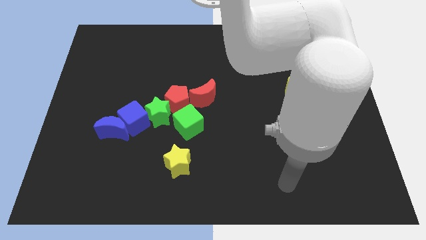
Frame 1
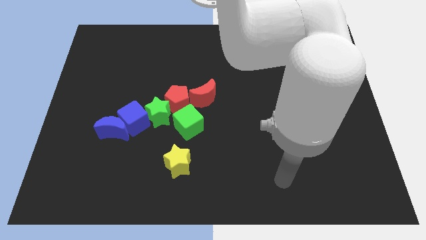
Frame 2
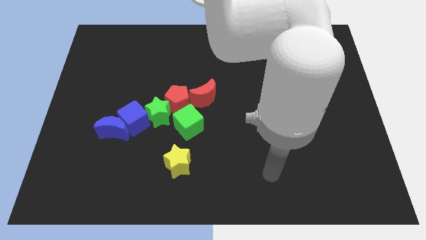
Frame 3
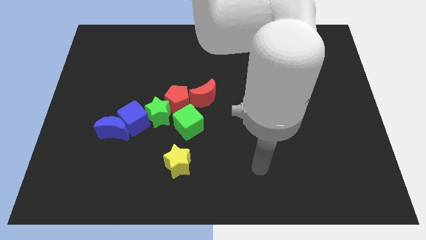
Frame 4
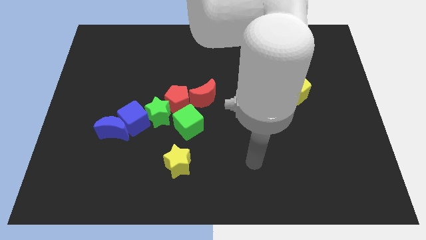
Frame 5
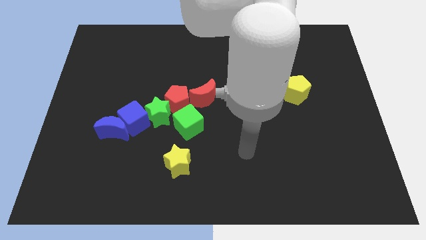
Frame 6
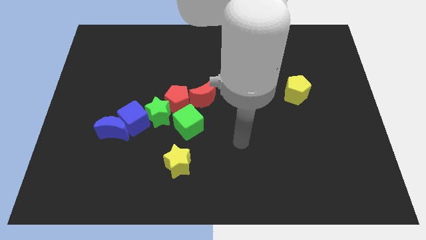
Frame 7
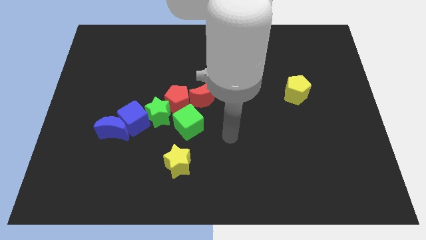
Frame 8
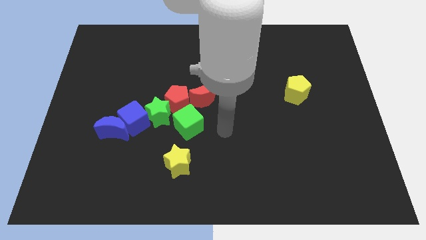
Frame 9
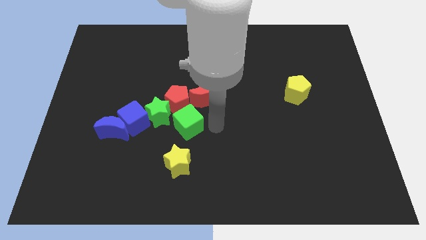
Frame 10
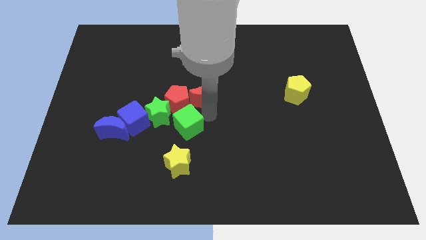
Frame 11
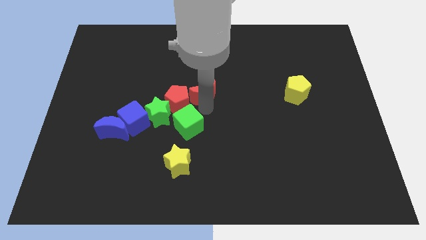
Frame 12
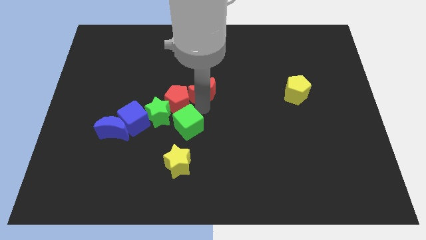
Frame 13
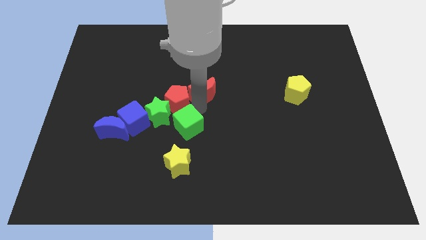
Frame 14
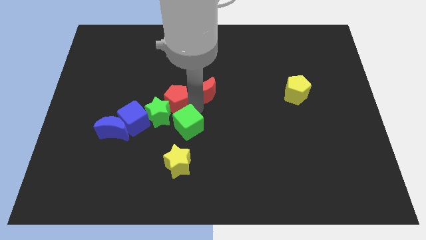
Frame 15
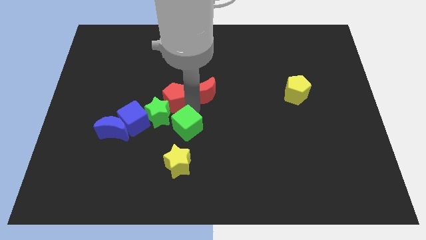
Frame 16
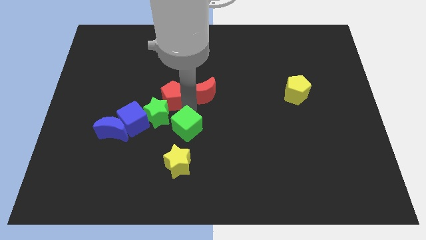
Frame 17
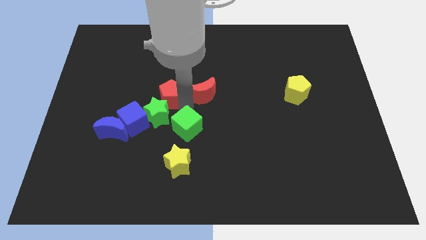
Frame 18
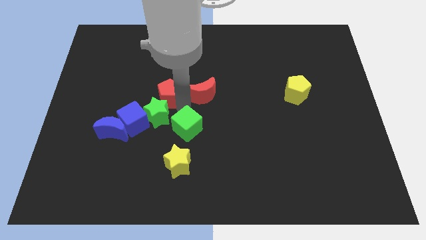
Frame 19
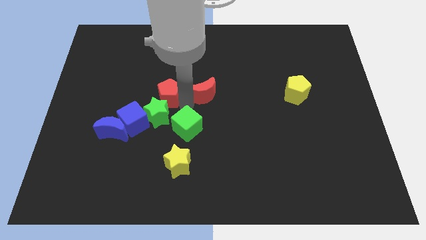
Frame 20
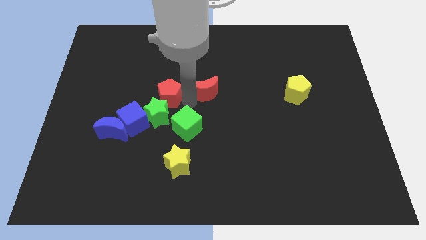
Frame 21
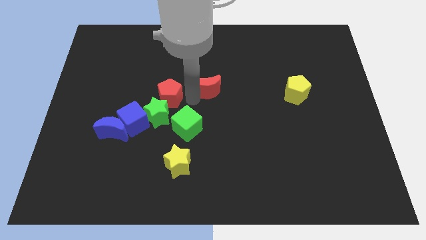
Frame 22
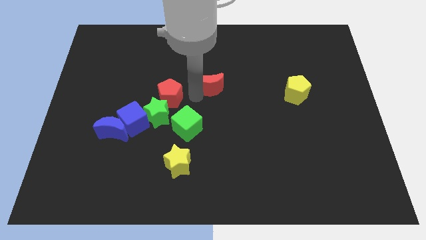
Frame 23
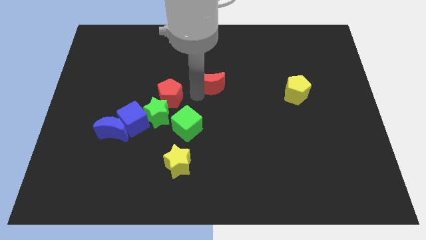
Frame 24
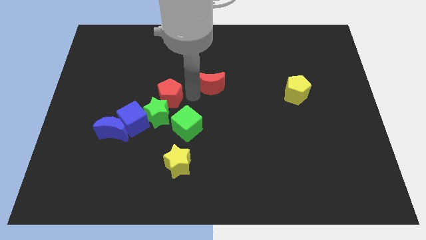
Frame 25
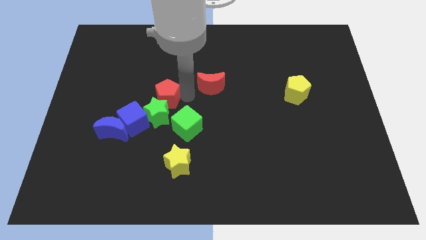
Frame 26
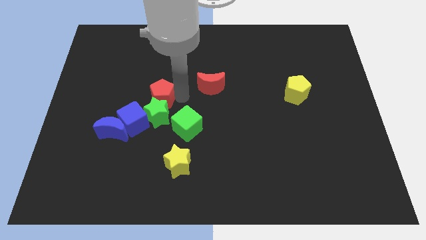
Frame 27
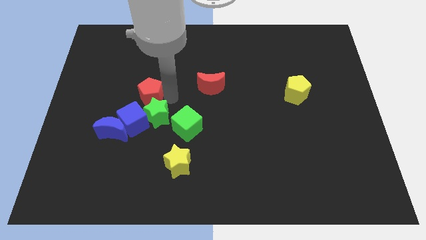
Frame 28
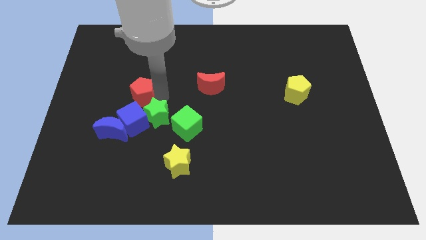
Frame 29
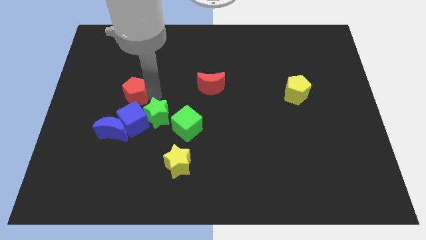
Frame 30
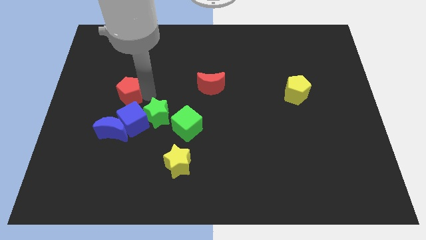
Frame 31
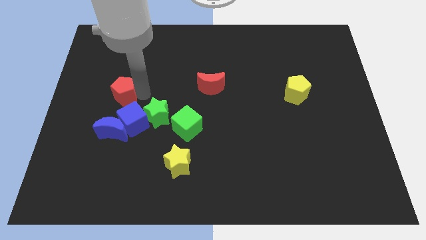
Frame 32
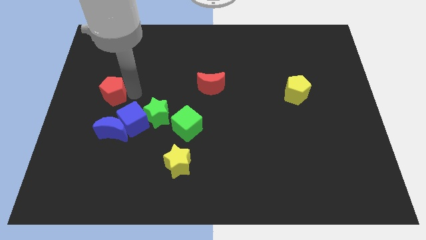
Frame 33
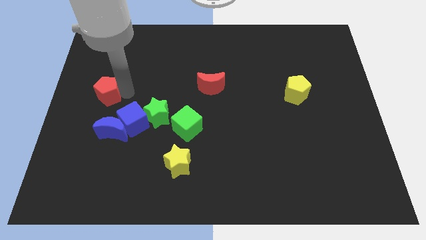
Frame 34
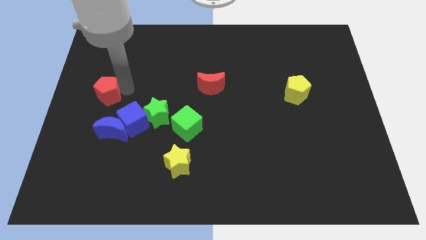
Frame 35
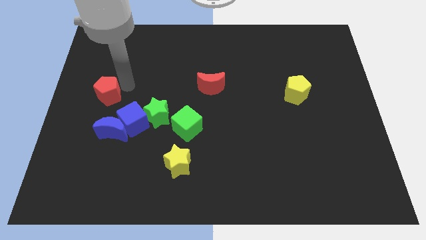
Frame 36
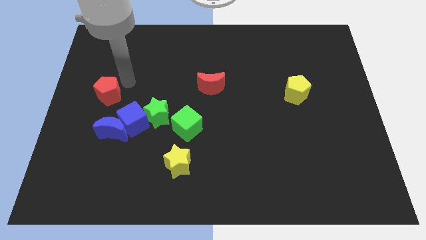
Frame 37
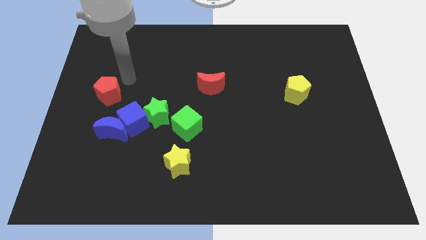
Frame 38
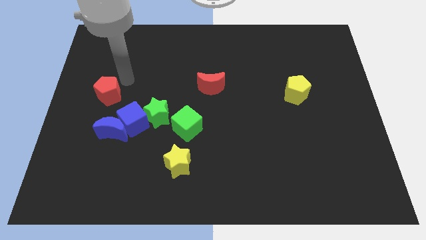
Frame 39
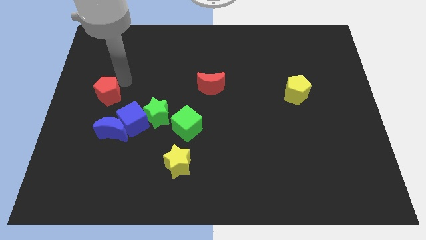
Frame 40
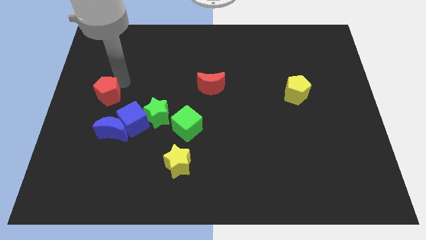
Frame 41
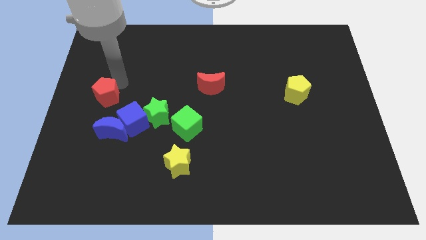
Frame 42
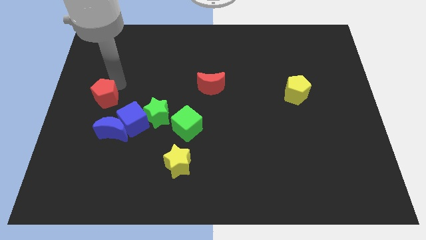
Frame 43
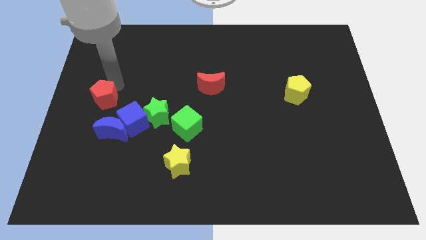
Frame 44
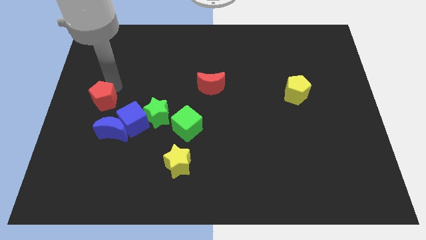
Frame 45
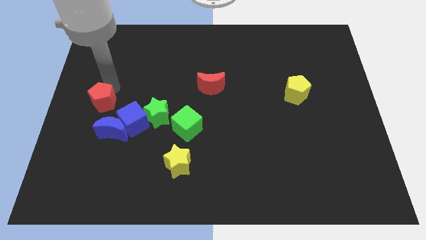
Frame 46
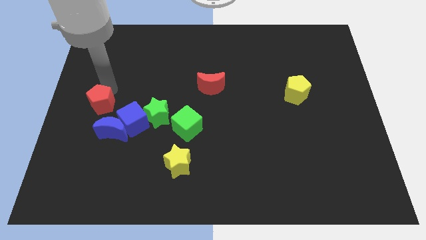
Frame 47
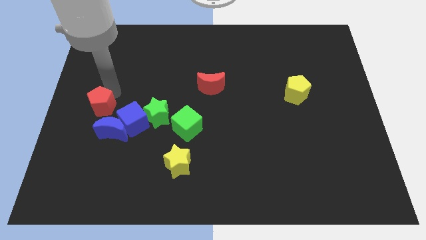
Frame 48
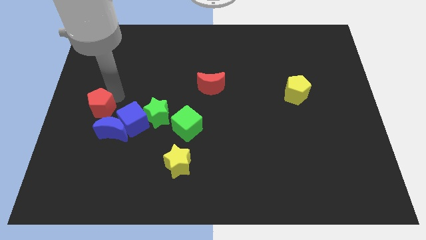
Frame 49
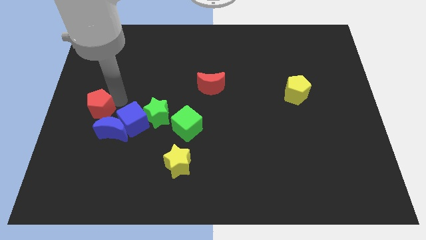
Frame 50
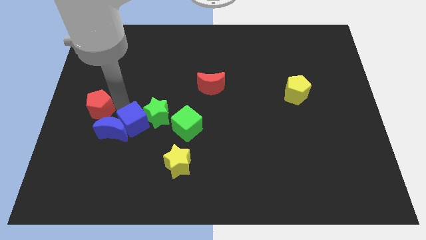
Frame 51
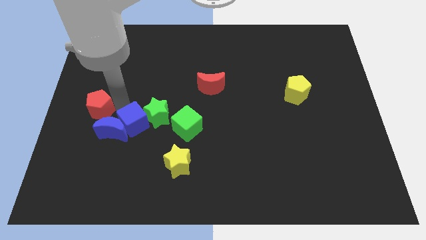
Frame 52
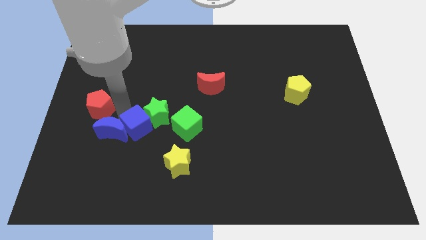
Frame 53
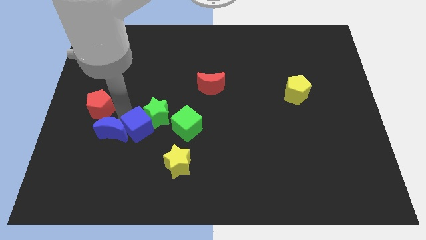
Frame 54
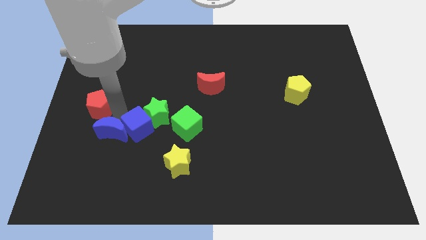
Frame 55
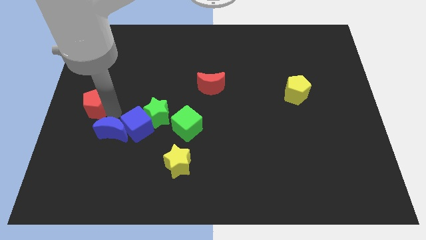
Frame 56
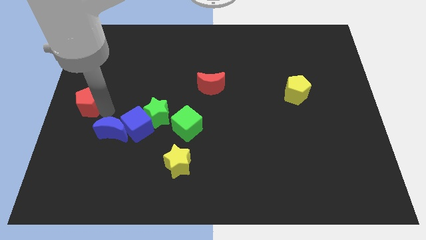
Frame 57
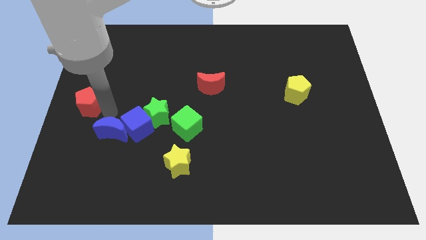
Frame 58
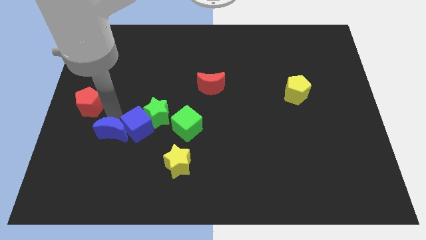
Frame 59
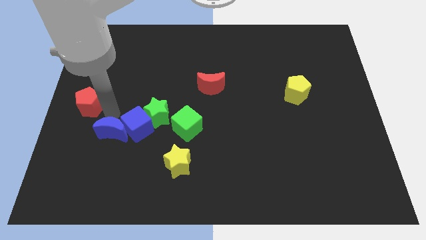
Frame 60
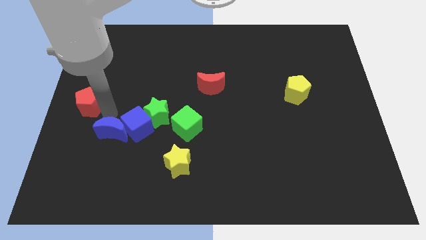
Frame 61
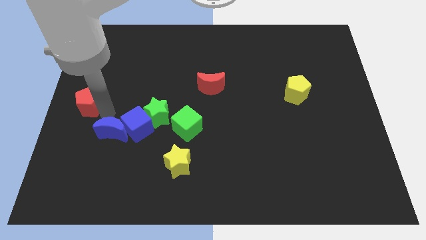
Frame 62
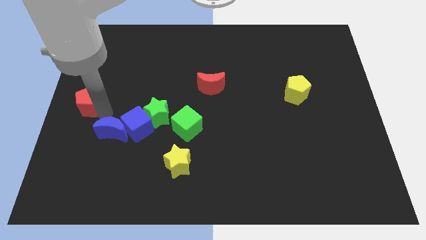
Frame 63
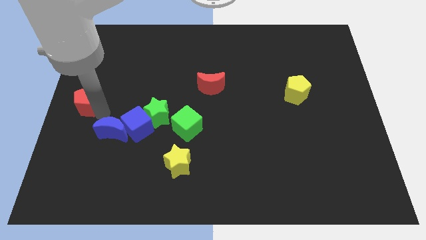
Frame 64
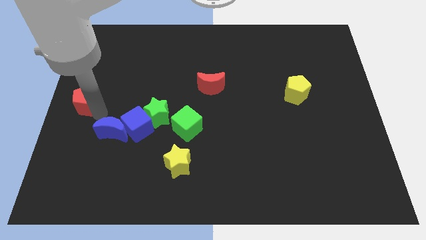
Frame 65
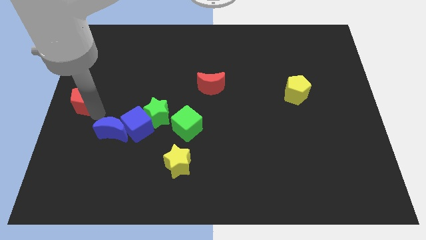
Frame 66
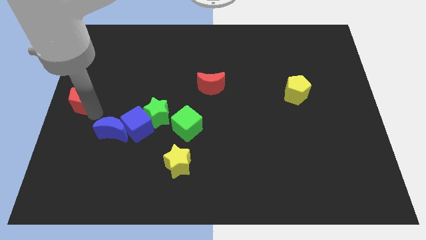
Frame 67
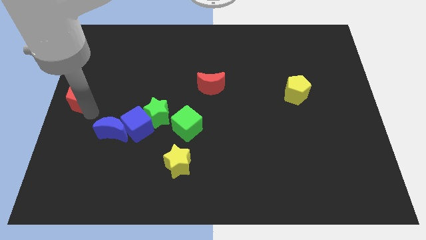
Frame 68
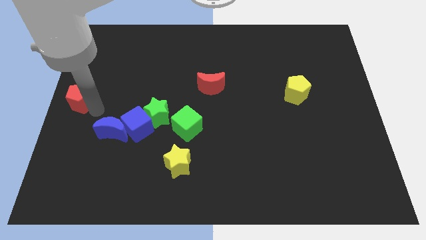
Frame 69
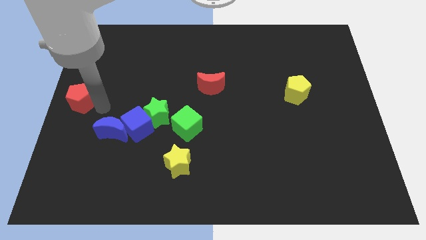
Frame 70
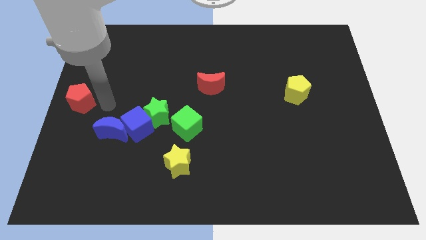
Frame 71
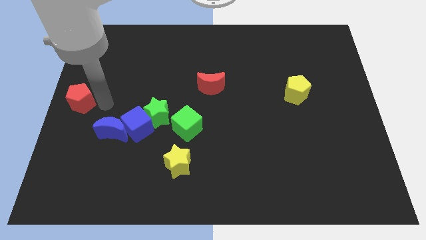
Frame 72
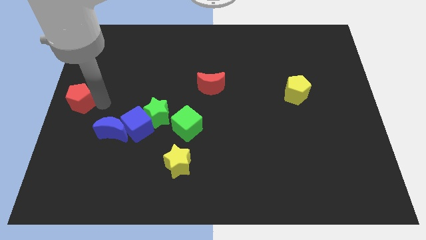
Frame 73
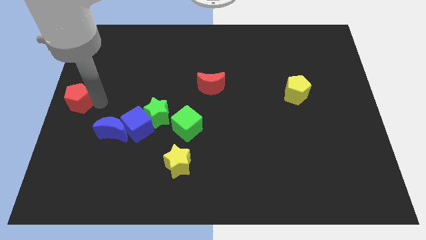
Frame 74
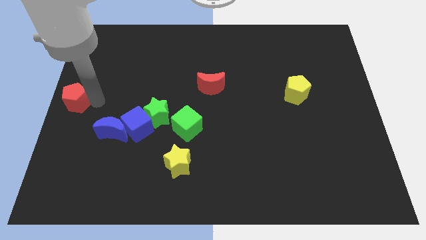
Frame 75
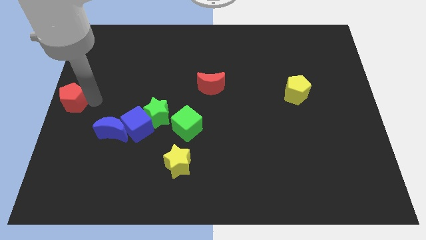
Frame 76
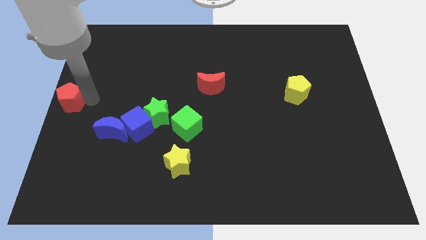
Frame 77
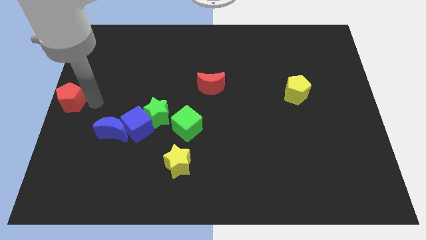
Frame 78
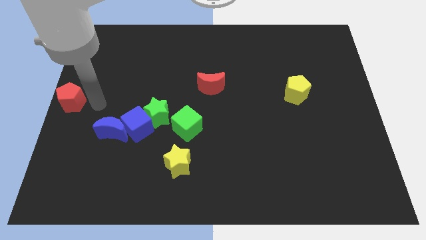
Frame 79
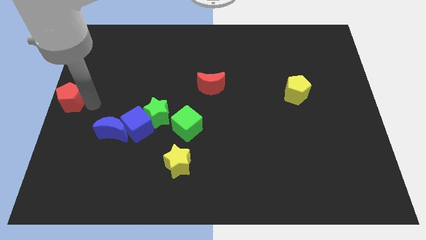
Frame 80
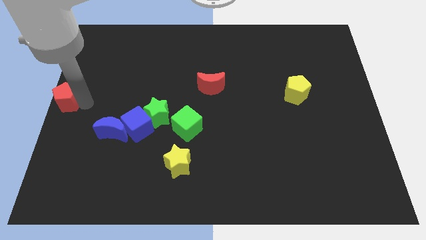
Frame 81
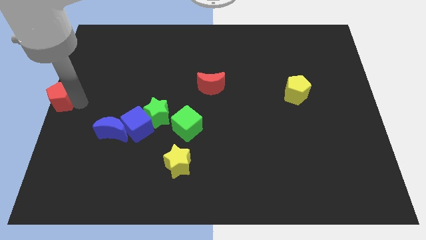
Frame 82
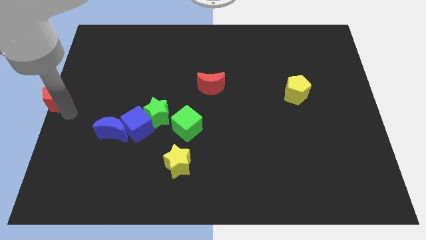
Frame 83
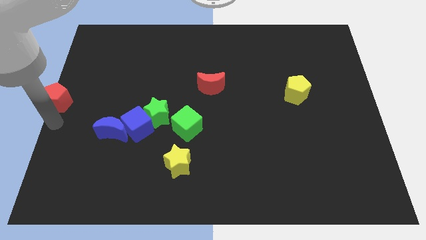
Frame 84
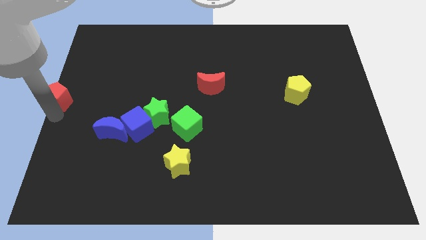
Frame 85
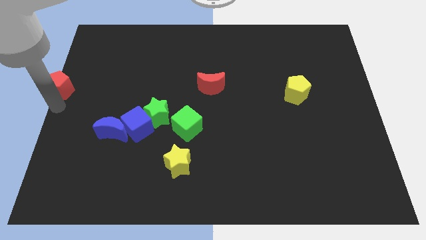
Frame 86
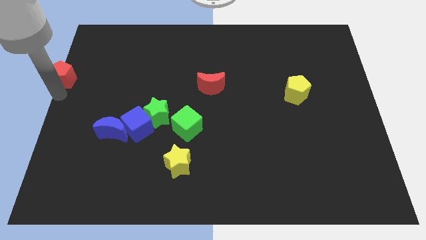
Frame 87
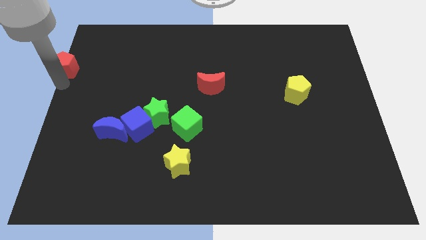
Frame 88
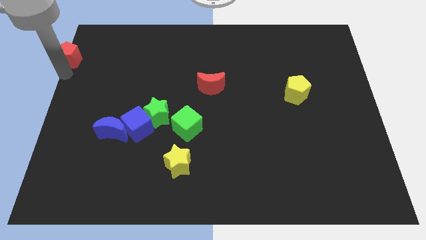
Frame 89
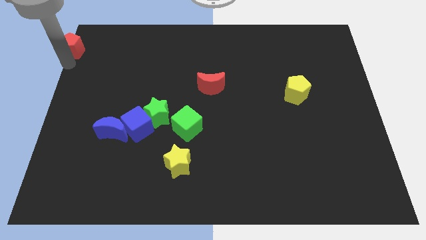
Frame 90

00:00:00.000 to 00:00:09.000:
push the red pentagon to the top left of the board
